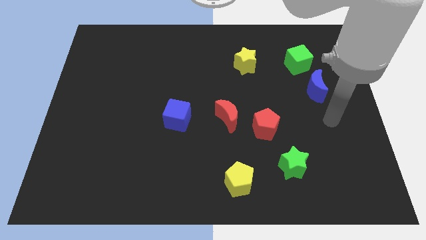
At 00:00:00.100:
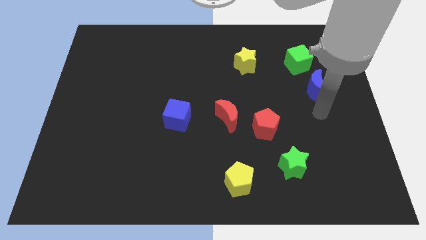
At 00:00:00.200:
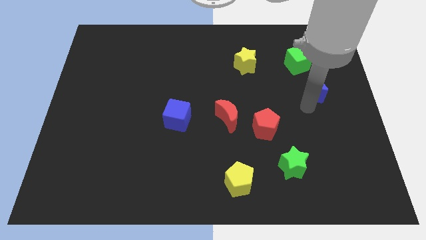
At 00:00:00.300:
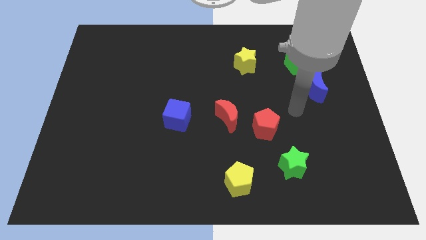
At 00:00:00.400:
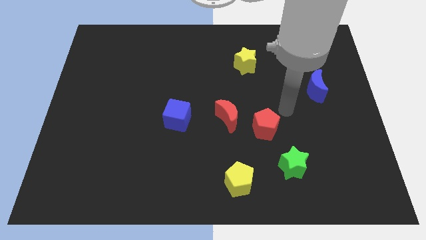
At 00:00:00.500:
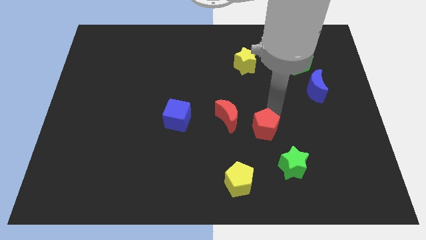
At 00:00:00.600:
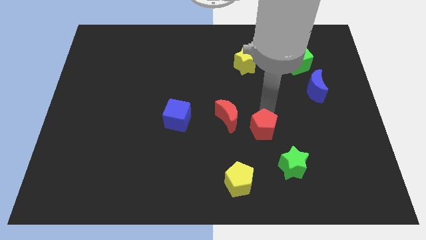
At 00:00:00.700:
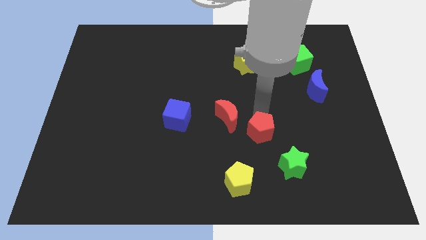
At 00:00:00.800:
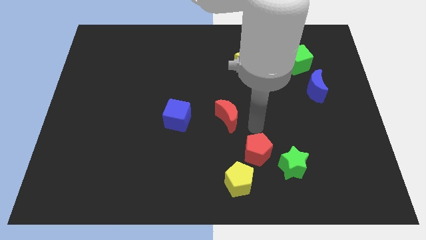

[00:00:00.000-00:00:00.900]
move the red moon away from the red pentagon

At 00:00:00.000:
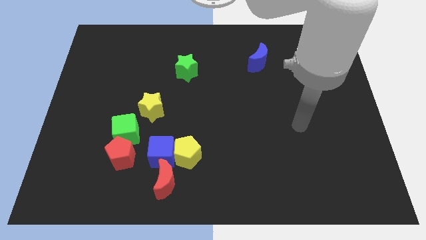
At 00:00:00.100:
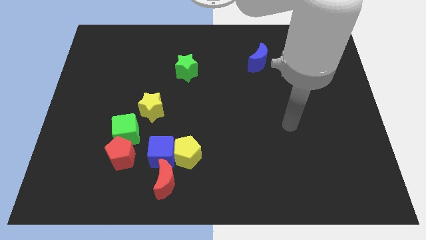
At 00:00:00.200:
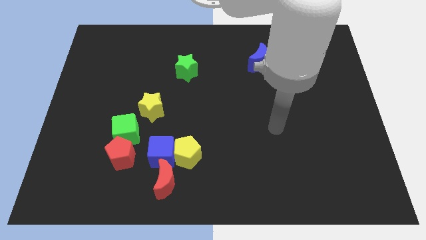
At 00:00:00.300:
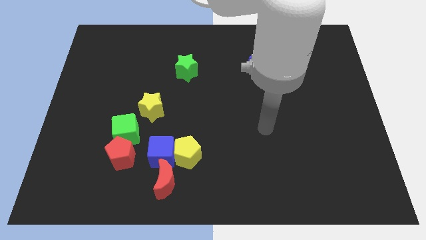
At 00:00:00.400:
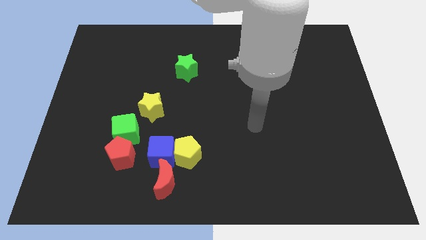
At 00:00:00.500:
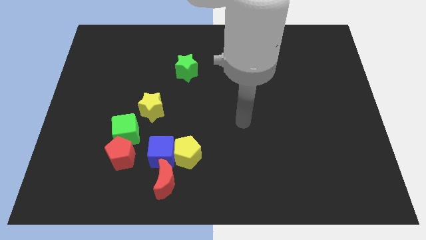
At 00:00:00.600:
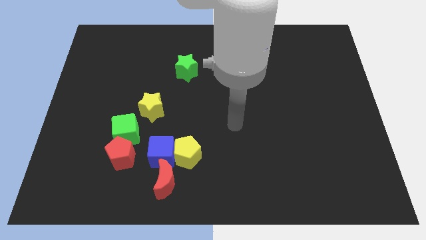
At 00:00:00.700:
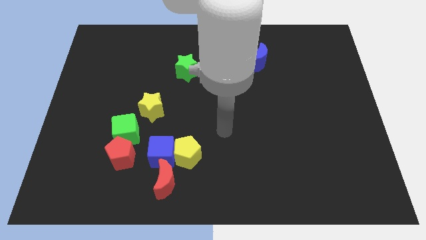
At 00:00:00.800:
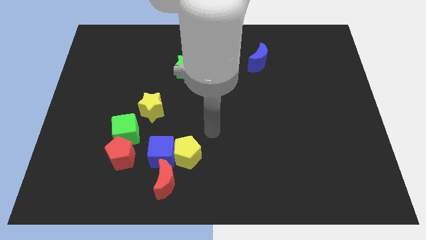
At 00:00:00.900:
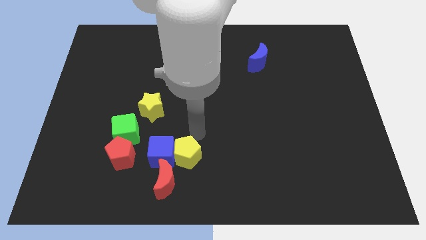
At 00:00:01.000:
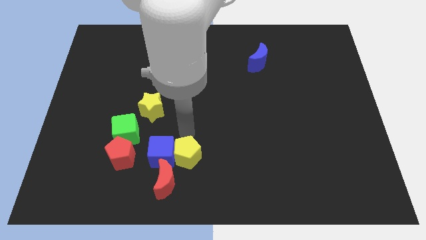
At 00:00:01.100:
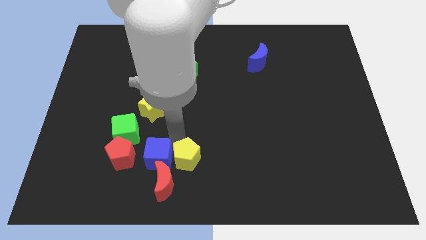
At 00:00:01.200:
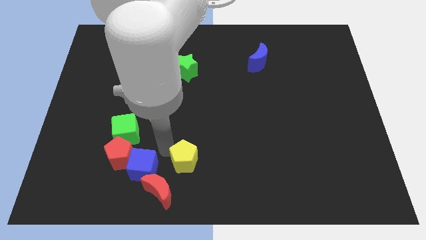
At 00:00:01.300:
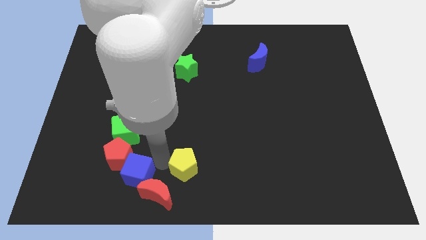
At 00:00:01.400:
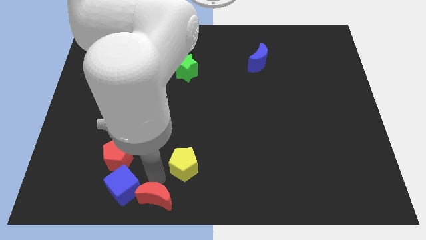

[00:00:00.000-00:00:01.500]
move the yellow pentagon away from the blue cube and red moon

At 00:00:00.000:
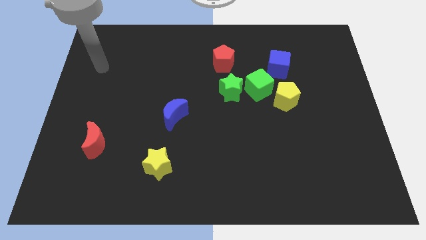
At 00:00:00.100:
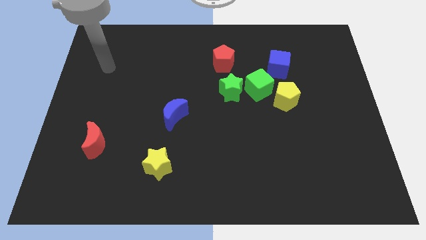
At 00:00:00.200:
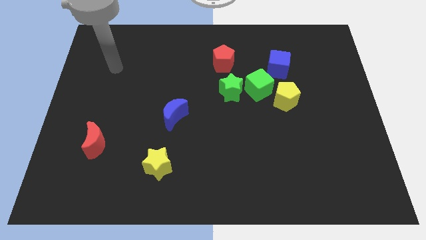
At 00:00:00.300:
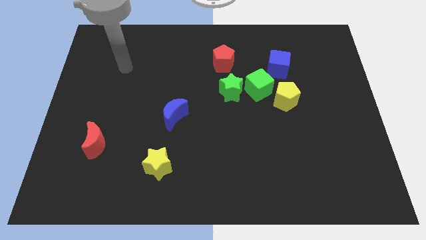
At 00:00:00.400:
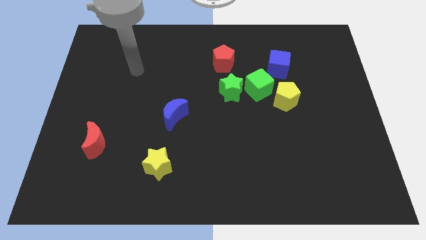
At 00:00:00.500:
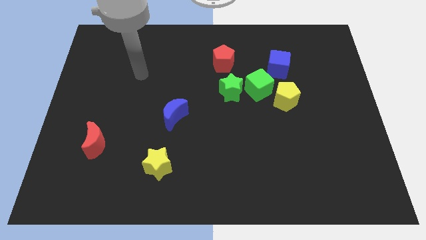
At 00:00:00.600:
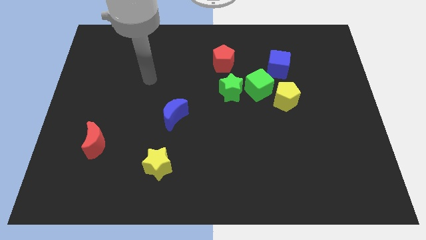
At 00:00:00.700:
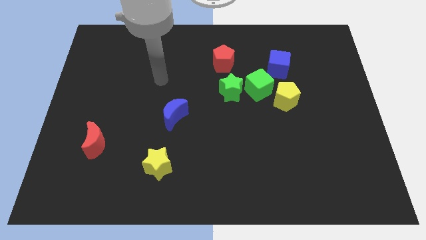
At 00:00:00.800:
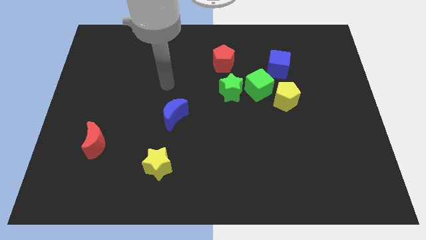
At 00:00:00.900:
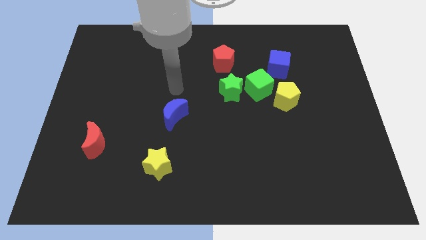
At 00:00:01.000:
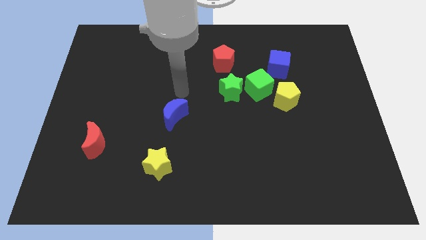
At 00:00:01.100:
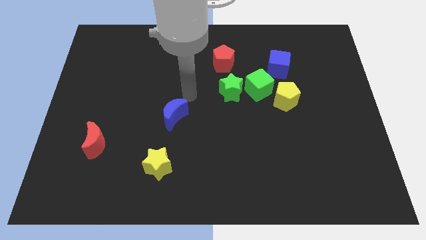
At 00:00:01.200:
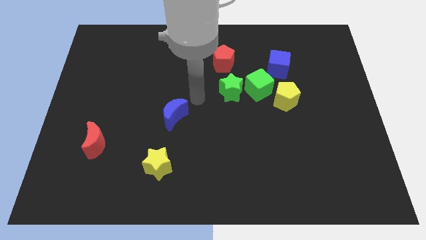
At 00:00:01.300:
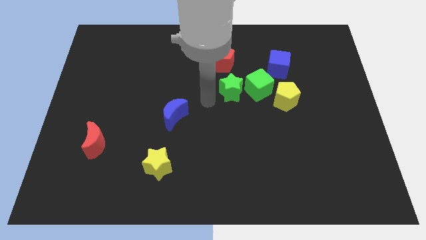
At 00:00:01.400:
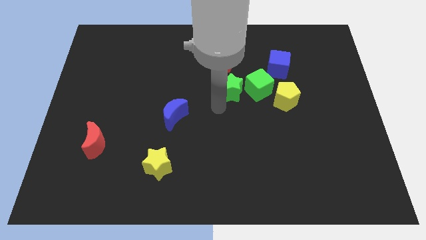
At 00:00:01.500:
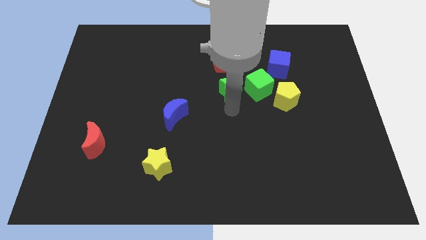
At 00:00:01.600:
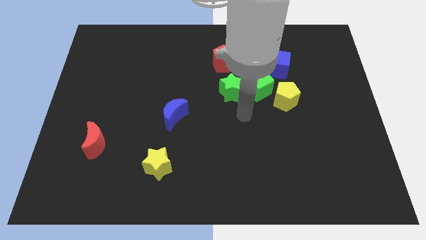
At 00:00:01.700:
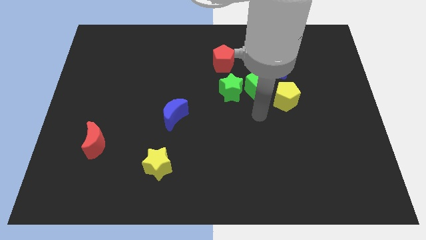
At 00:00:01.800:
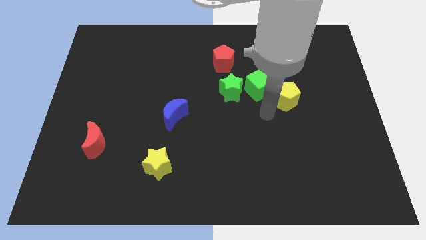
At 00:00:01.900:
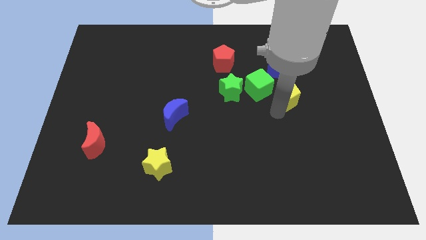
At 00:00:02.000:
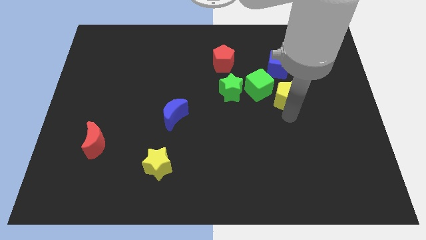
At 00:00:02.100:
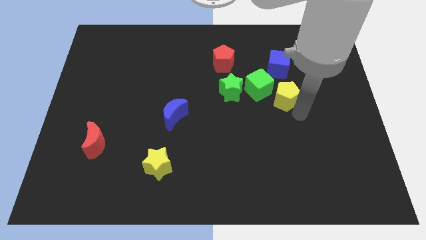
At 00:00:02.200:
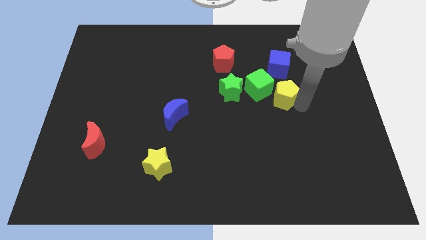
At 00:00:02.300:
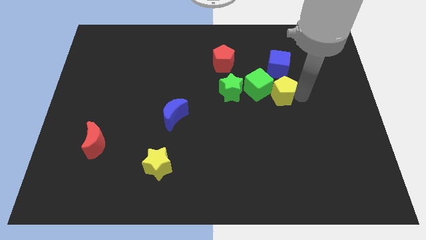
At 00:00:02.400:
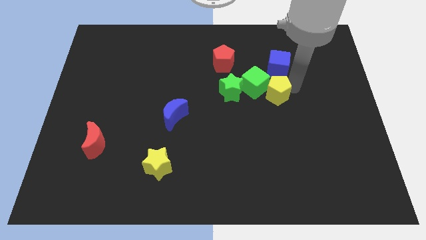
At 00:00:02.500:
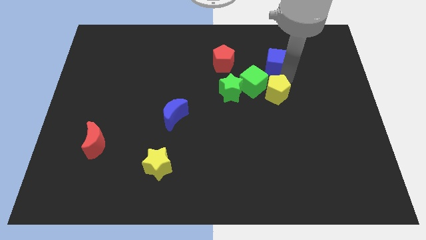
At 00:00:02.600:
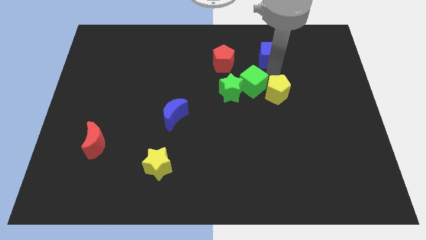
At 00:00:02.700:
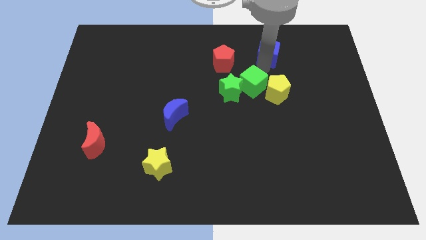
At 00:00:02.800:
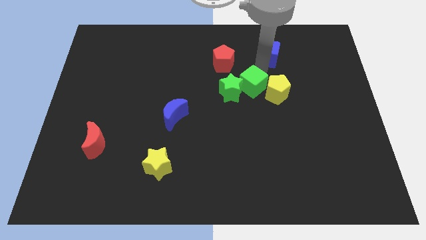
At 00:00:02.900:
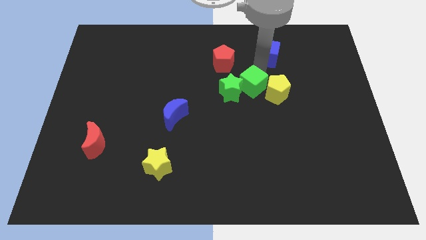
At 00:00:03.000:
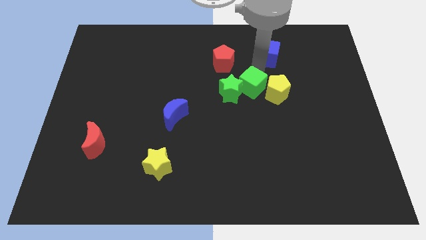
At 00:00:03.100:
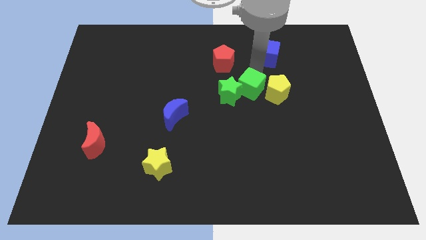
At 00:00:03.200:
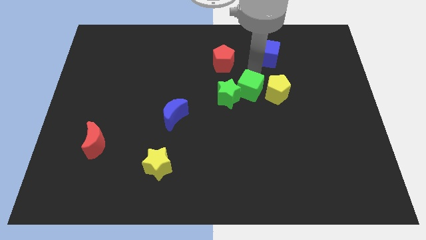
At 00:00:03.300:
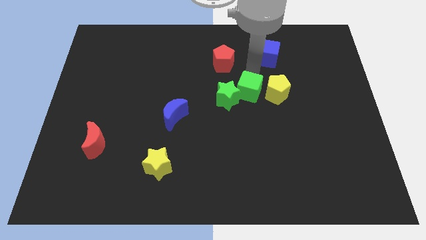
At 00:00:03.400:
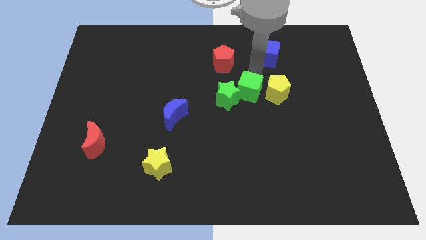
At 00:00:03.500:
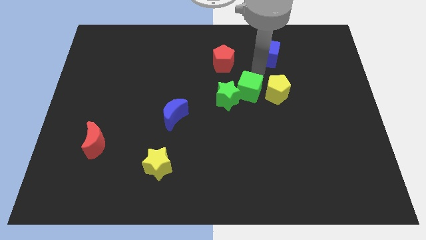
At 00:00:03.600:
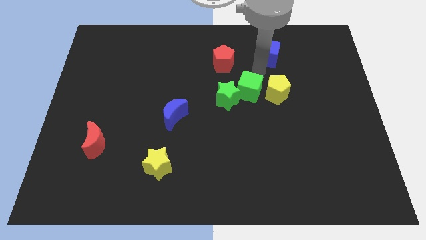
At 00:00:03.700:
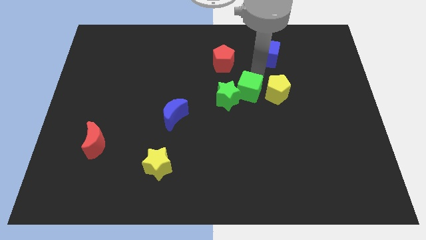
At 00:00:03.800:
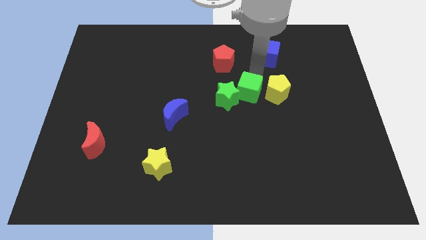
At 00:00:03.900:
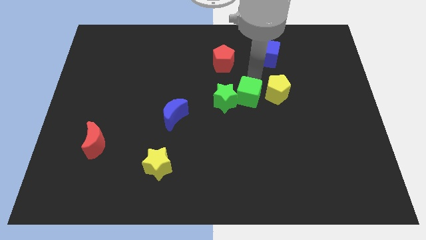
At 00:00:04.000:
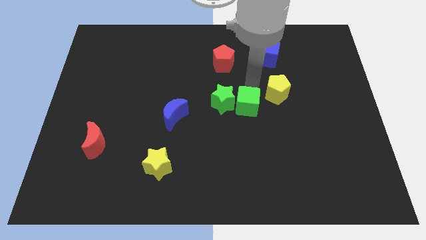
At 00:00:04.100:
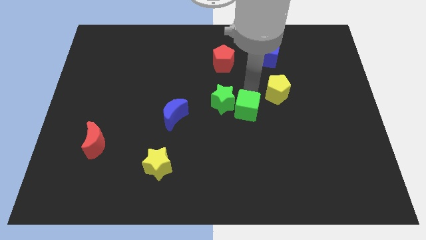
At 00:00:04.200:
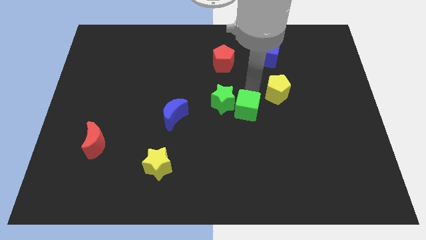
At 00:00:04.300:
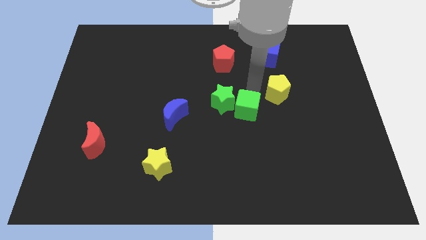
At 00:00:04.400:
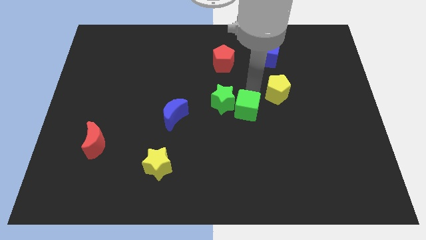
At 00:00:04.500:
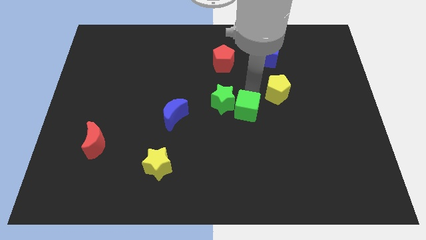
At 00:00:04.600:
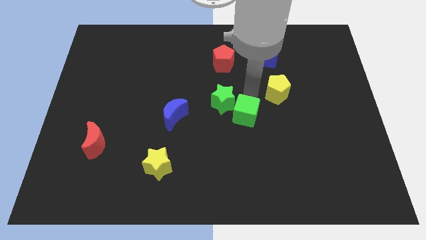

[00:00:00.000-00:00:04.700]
pull the green cube apart from the group of blocks

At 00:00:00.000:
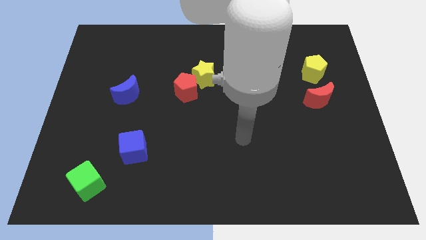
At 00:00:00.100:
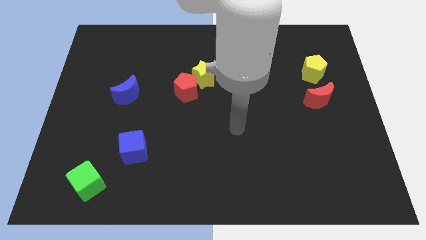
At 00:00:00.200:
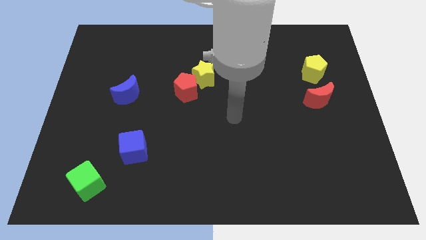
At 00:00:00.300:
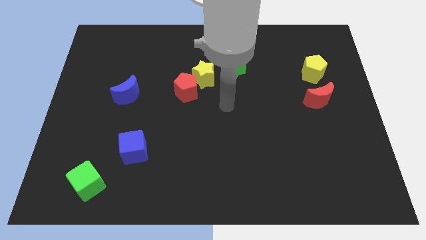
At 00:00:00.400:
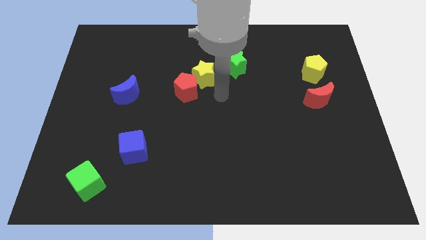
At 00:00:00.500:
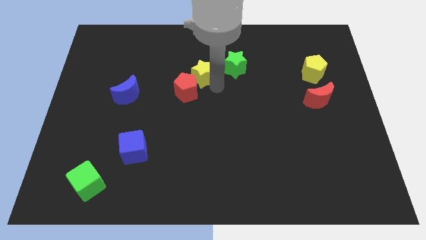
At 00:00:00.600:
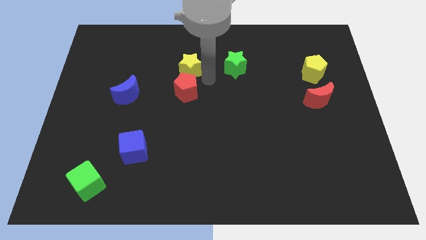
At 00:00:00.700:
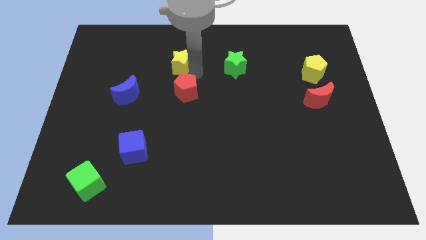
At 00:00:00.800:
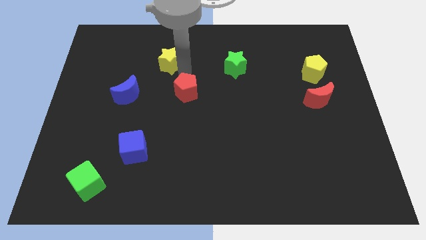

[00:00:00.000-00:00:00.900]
pull the red pentagon apart from the yellow star

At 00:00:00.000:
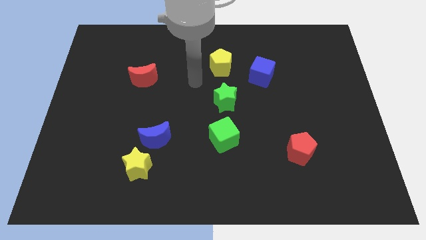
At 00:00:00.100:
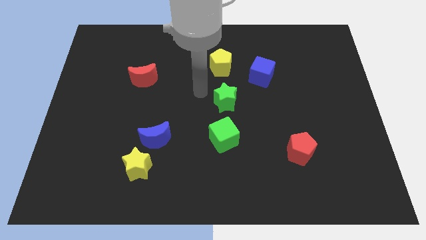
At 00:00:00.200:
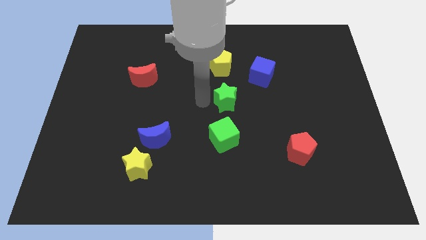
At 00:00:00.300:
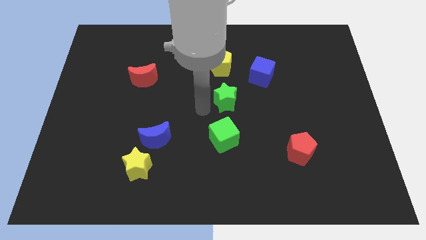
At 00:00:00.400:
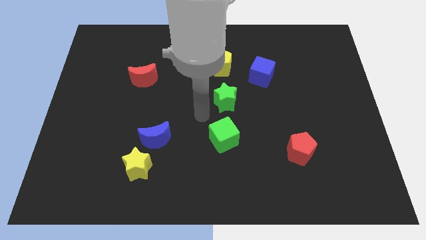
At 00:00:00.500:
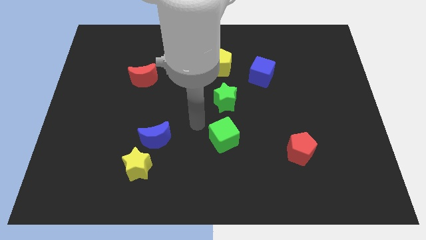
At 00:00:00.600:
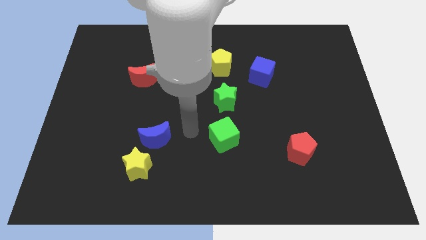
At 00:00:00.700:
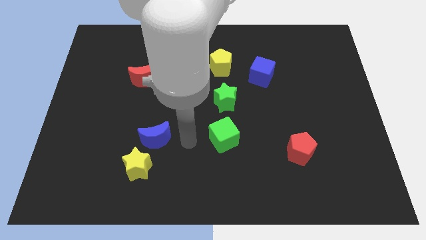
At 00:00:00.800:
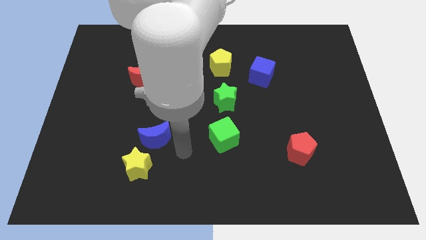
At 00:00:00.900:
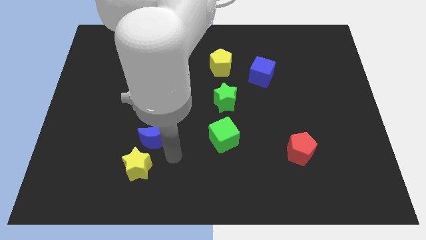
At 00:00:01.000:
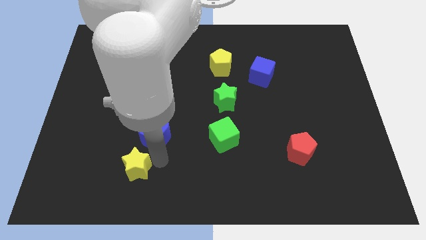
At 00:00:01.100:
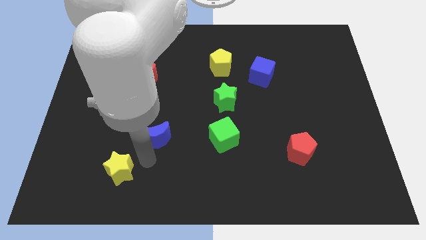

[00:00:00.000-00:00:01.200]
pull the blue moon apart from the yellow star
